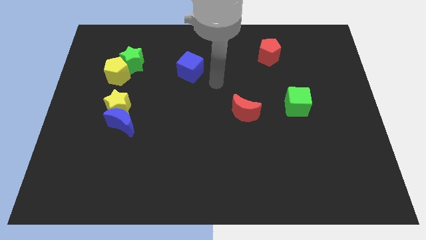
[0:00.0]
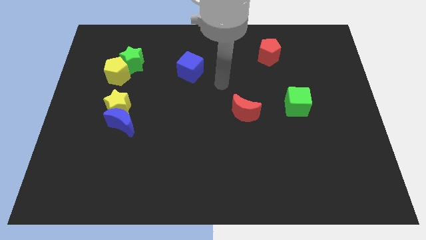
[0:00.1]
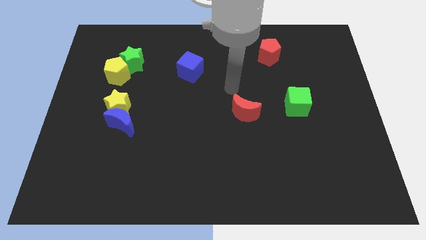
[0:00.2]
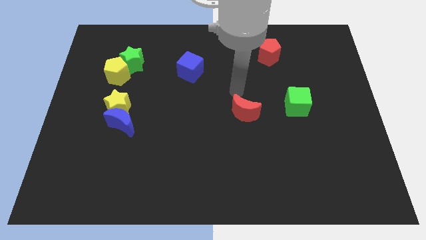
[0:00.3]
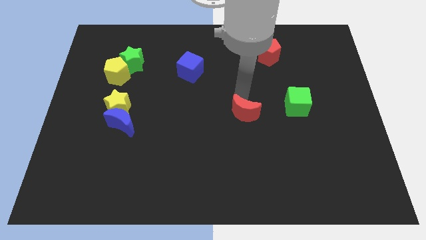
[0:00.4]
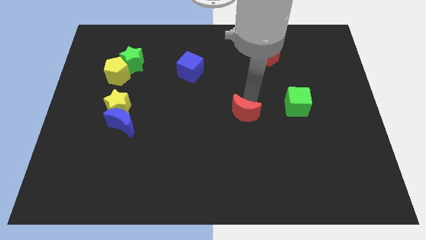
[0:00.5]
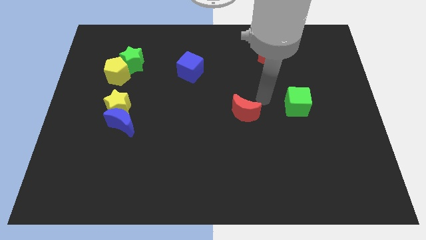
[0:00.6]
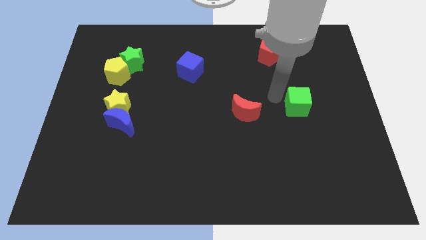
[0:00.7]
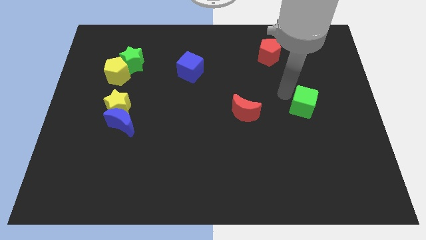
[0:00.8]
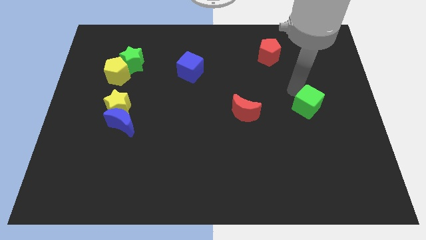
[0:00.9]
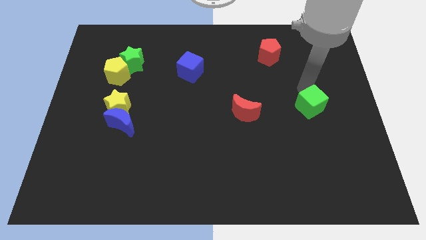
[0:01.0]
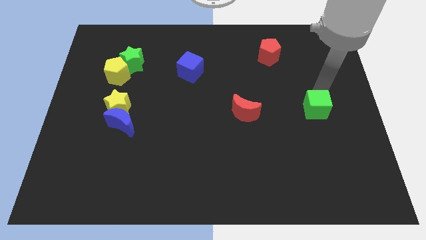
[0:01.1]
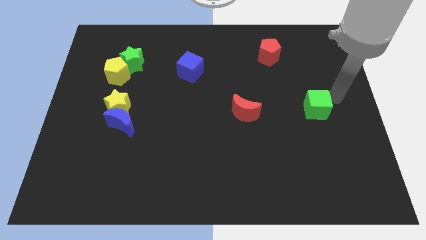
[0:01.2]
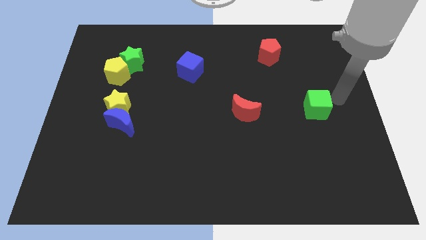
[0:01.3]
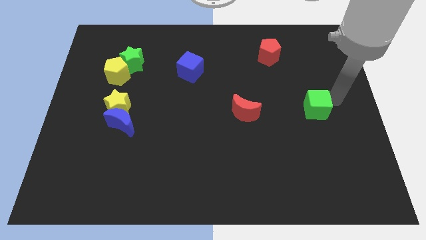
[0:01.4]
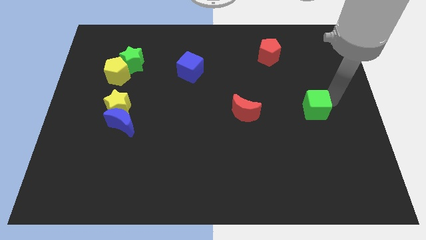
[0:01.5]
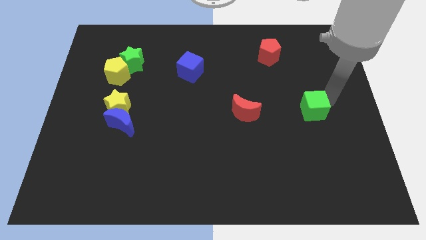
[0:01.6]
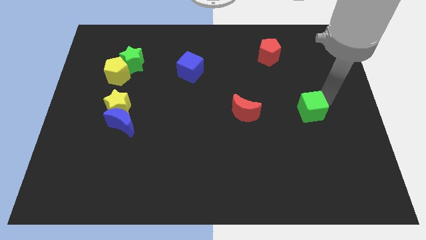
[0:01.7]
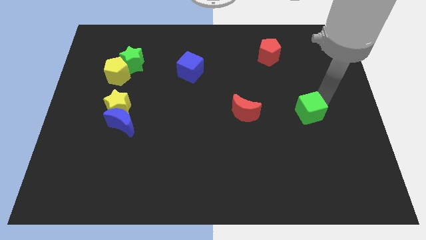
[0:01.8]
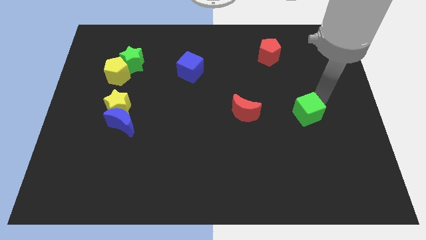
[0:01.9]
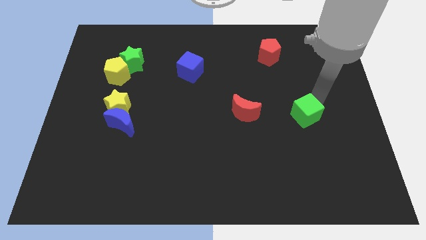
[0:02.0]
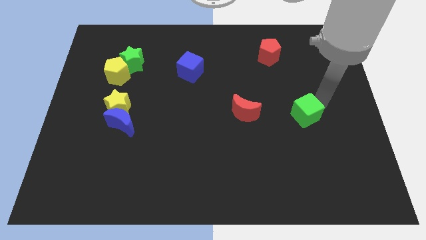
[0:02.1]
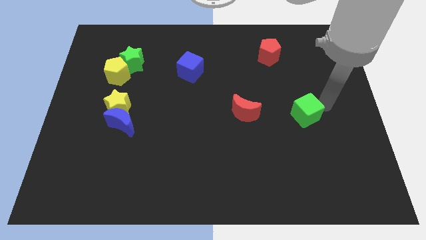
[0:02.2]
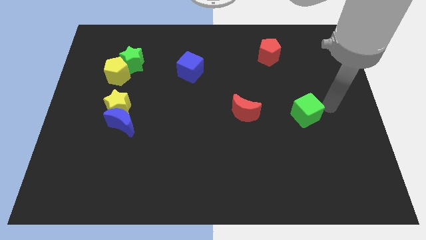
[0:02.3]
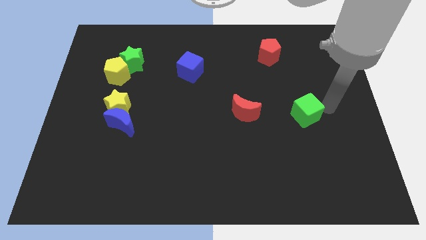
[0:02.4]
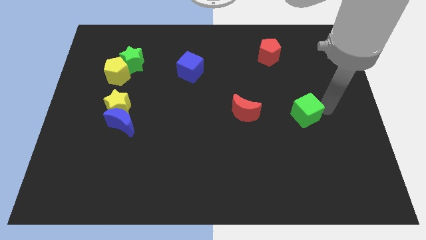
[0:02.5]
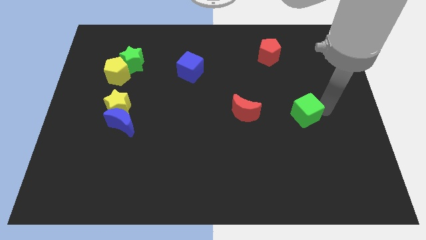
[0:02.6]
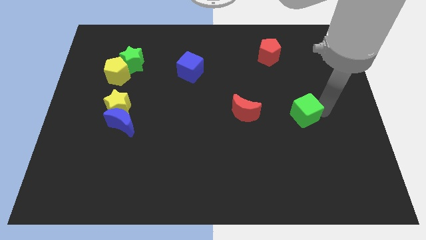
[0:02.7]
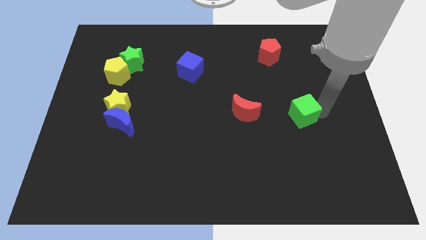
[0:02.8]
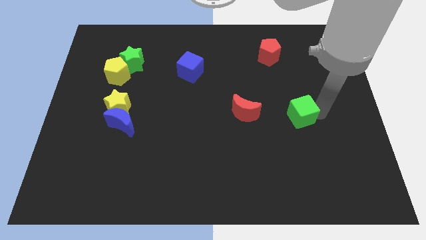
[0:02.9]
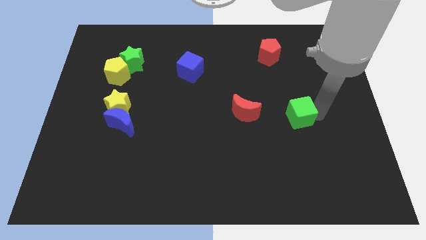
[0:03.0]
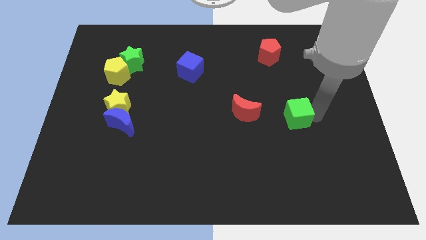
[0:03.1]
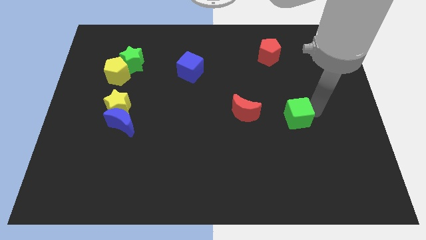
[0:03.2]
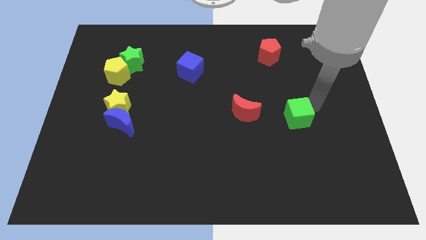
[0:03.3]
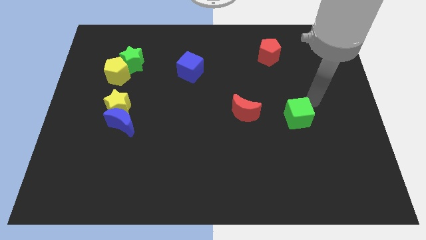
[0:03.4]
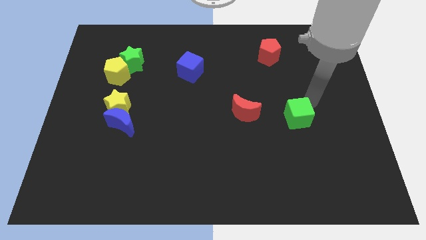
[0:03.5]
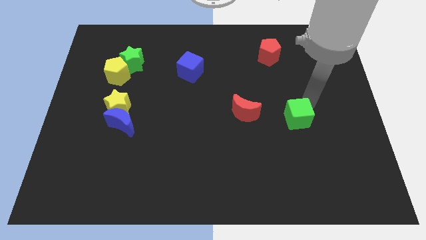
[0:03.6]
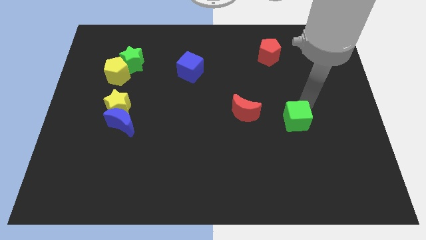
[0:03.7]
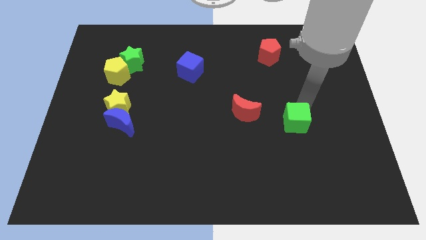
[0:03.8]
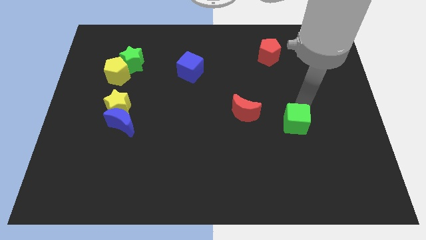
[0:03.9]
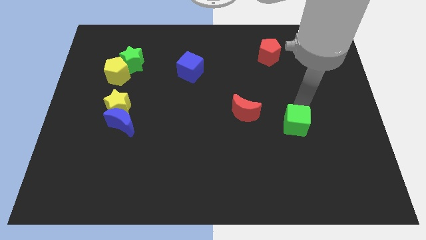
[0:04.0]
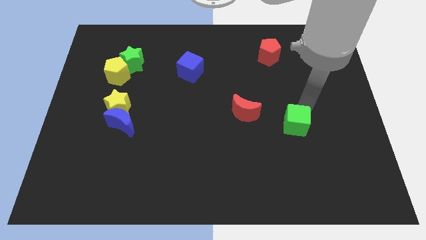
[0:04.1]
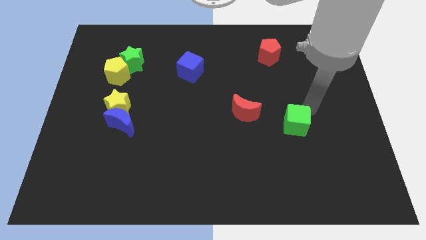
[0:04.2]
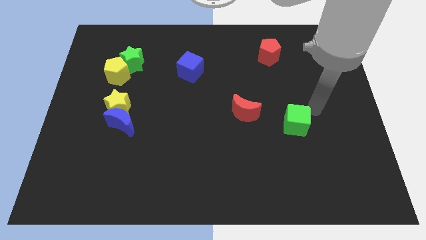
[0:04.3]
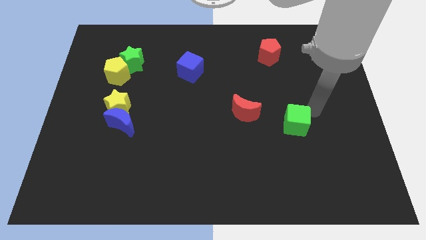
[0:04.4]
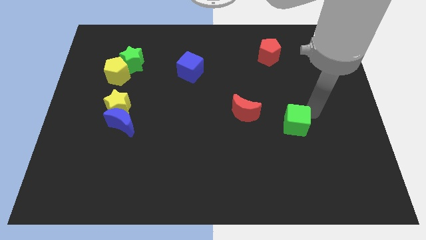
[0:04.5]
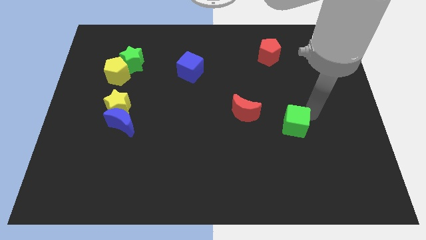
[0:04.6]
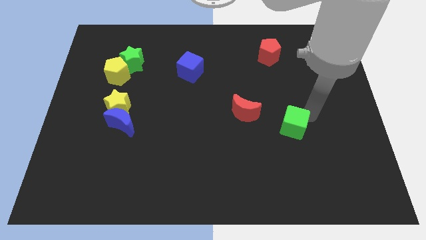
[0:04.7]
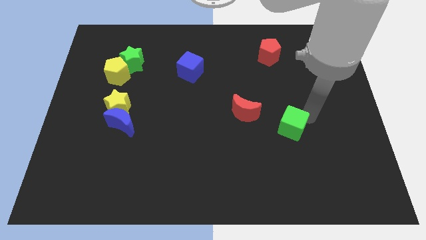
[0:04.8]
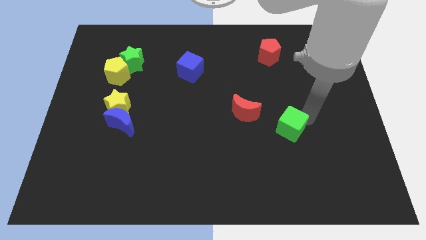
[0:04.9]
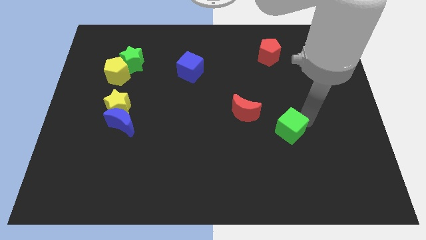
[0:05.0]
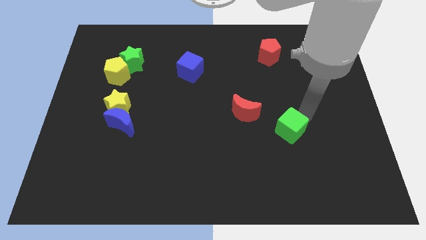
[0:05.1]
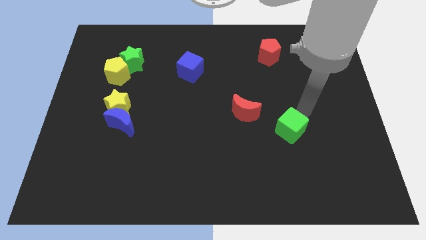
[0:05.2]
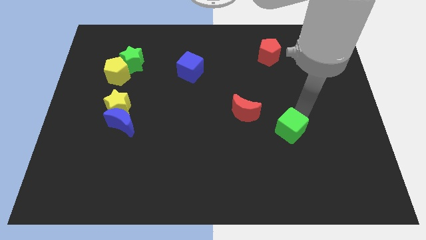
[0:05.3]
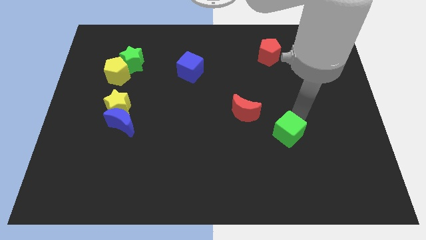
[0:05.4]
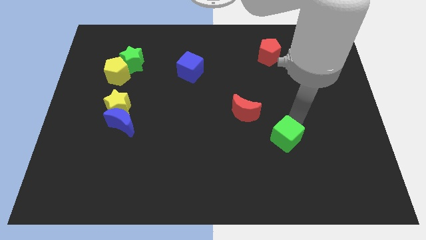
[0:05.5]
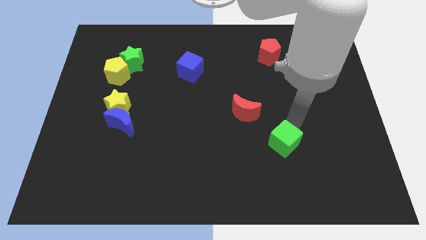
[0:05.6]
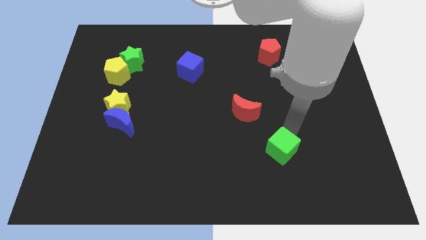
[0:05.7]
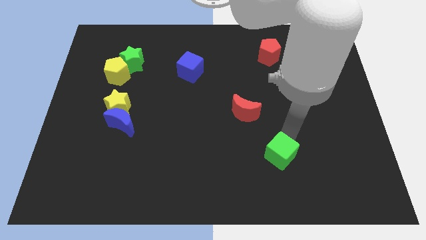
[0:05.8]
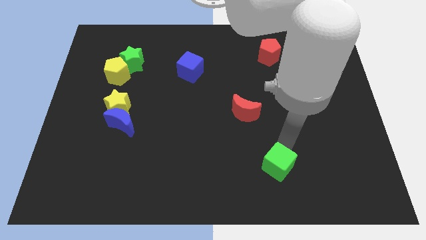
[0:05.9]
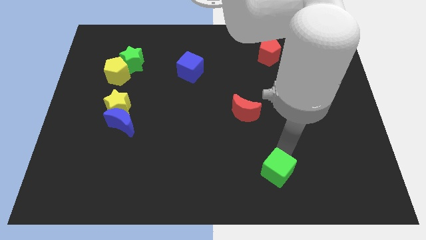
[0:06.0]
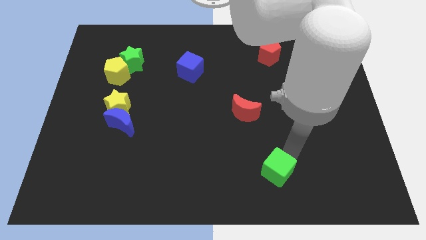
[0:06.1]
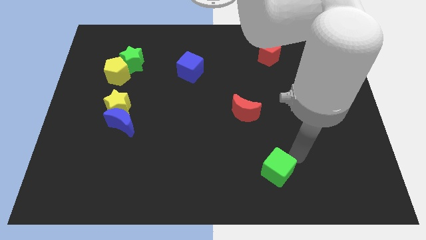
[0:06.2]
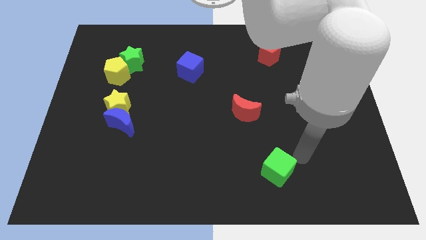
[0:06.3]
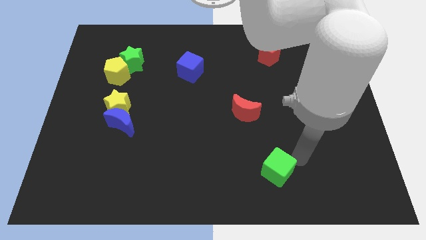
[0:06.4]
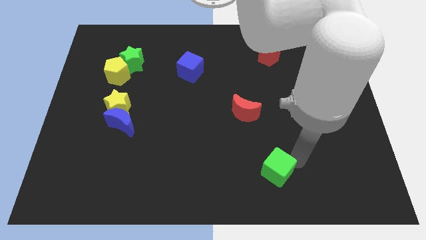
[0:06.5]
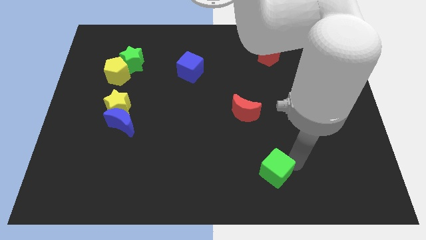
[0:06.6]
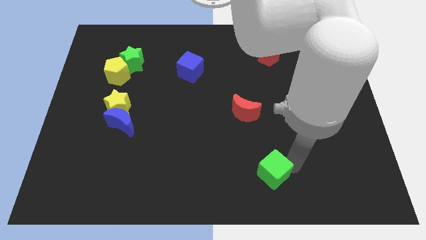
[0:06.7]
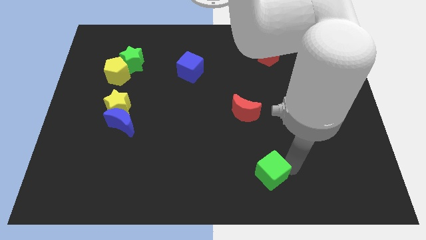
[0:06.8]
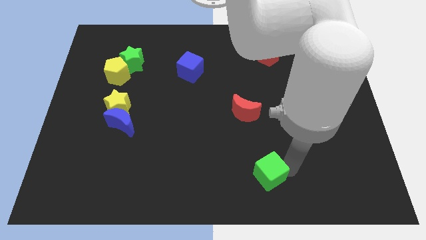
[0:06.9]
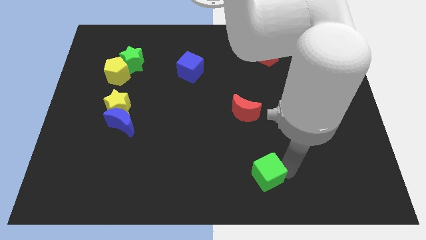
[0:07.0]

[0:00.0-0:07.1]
put the green cube to the bottom
